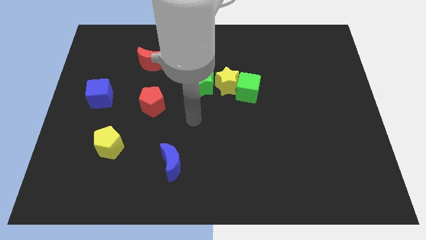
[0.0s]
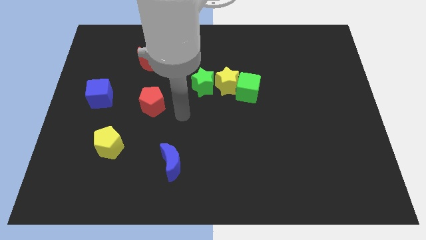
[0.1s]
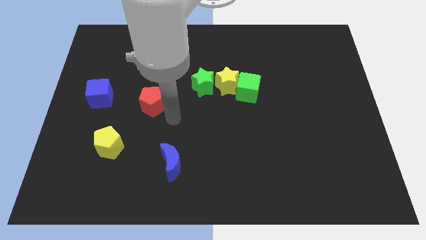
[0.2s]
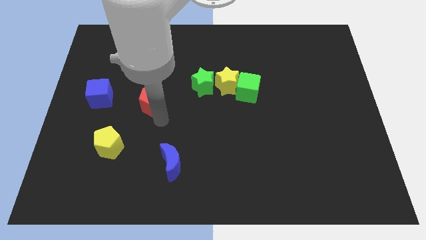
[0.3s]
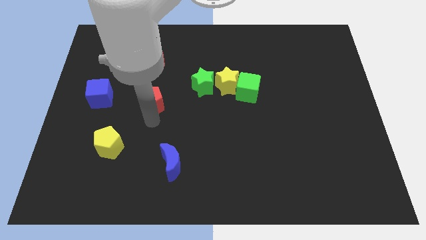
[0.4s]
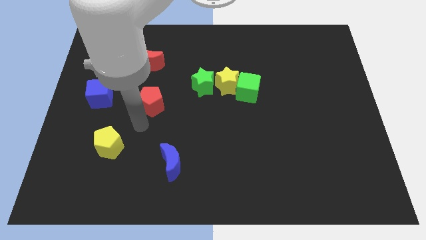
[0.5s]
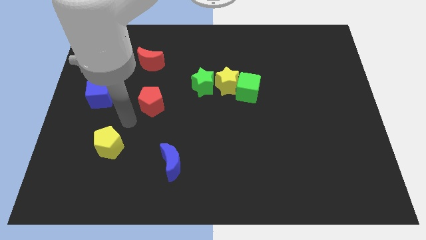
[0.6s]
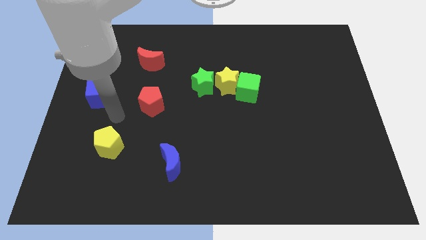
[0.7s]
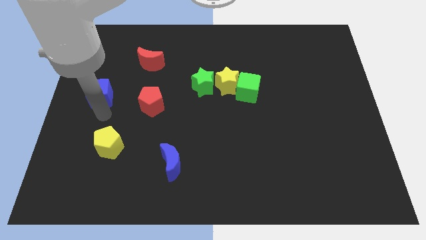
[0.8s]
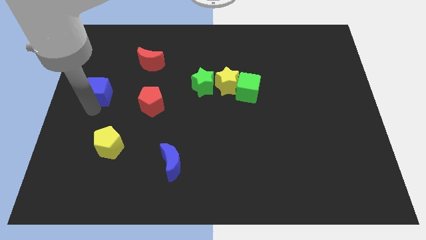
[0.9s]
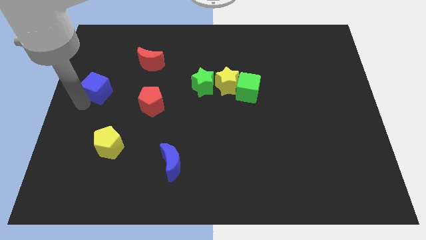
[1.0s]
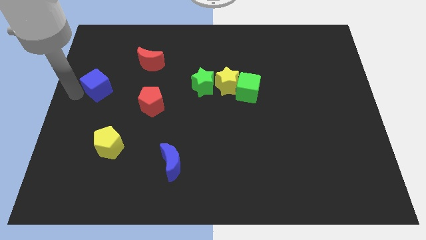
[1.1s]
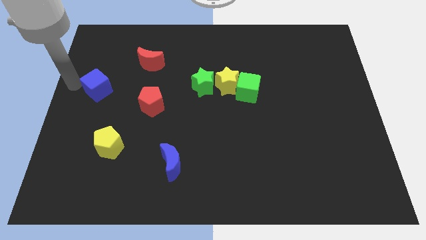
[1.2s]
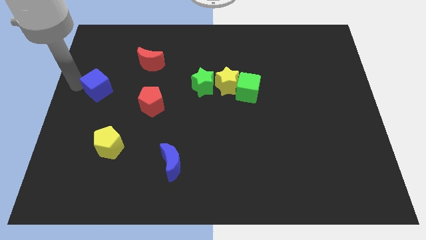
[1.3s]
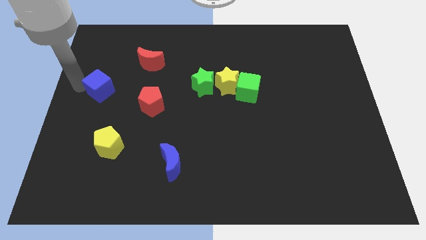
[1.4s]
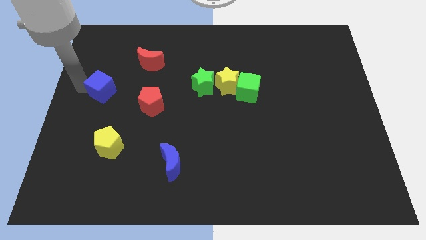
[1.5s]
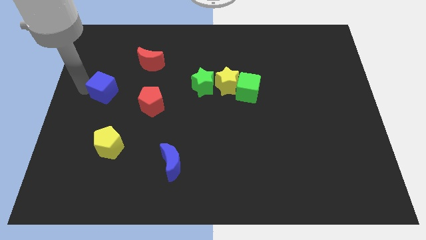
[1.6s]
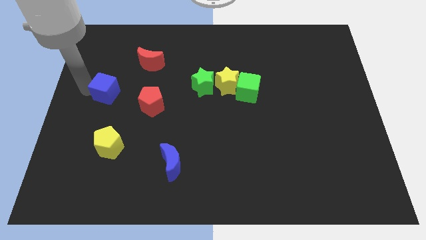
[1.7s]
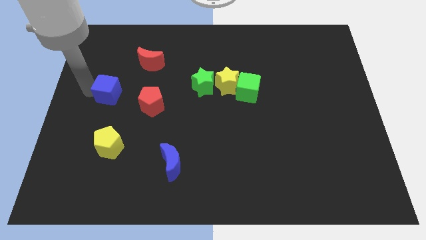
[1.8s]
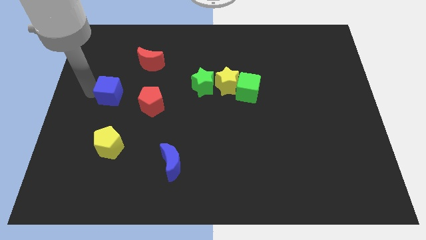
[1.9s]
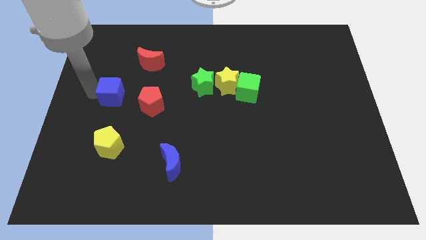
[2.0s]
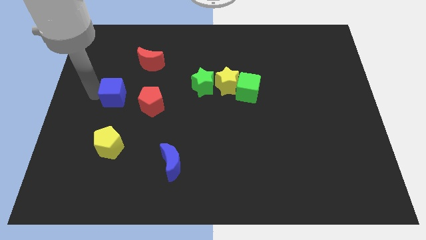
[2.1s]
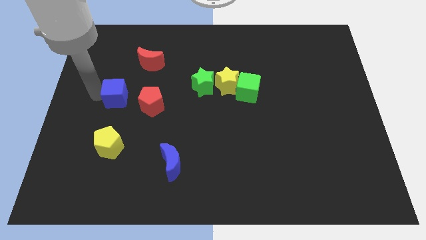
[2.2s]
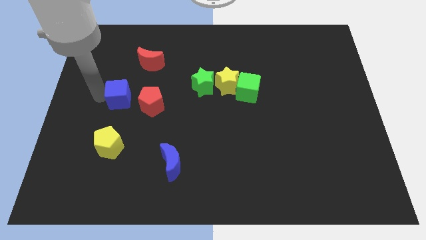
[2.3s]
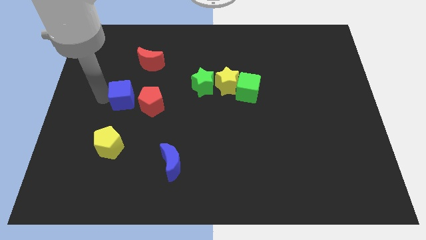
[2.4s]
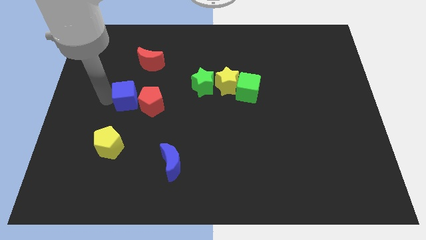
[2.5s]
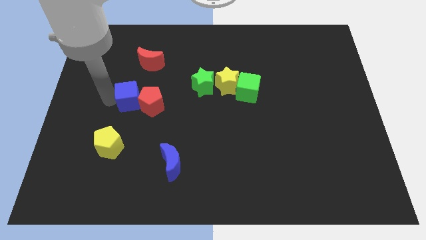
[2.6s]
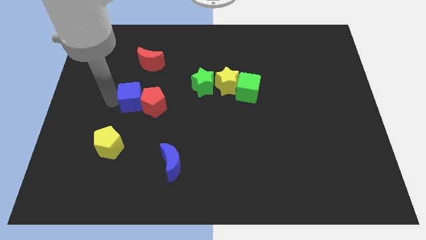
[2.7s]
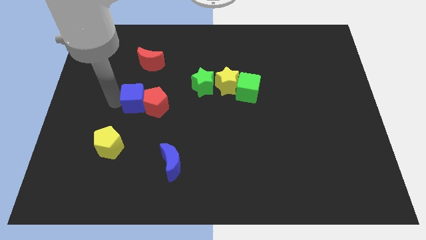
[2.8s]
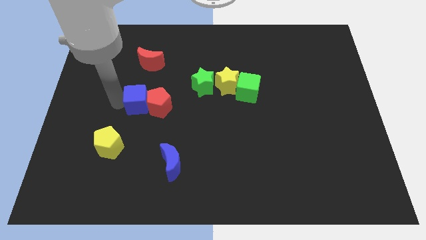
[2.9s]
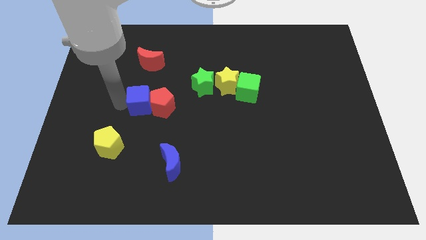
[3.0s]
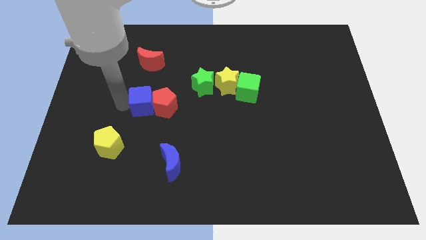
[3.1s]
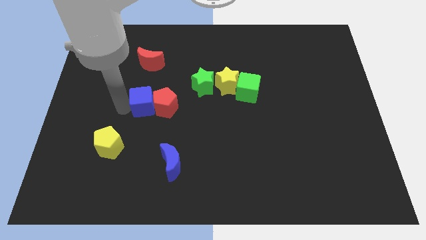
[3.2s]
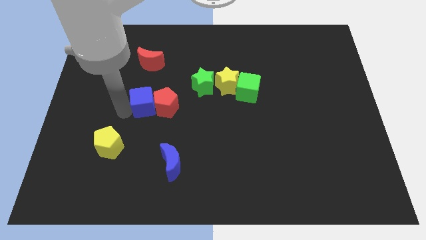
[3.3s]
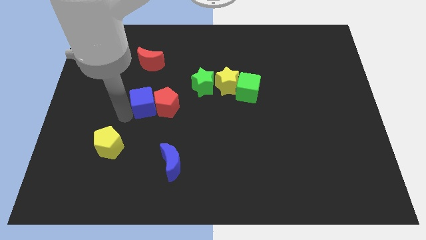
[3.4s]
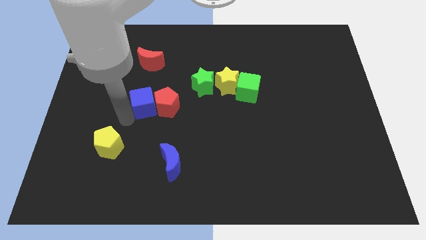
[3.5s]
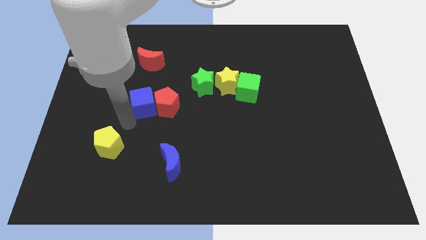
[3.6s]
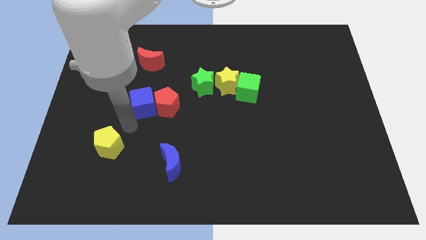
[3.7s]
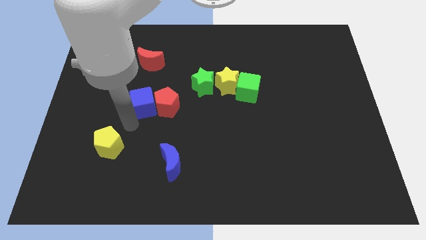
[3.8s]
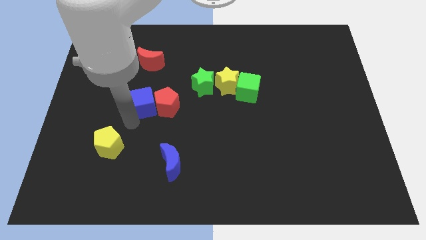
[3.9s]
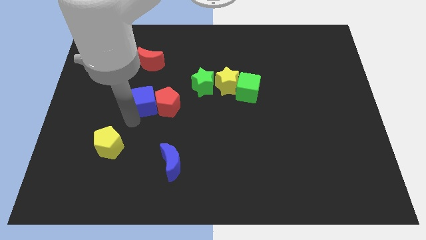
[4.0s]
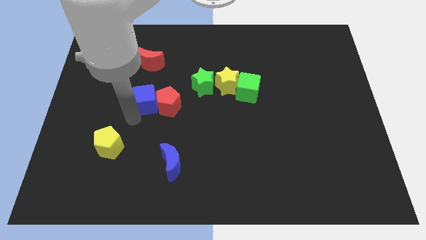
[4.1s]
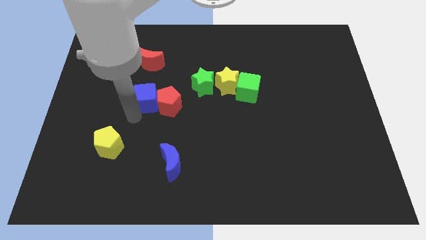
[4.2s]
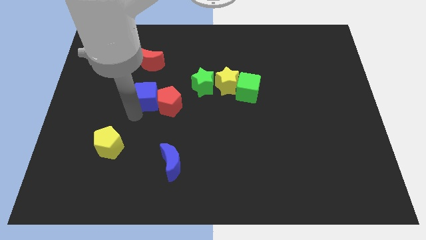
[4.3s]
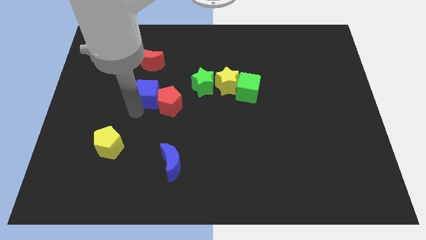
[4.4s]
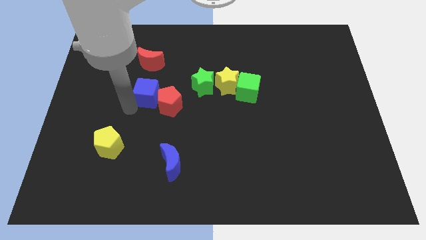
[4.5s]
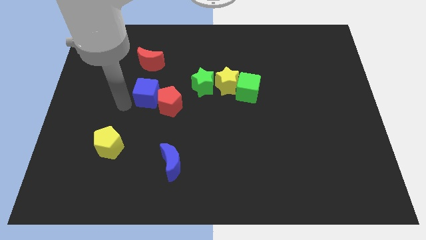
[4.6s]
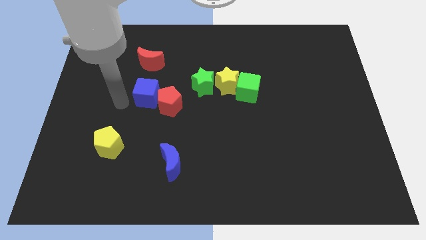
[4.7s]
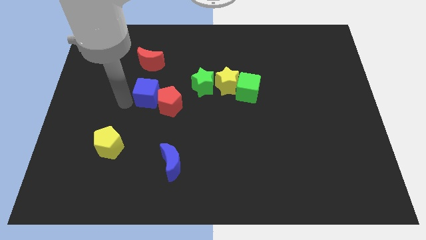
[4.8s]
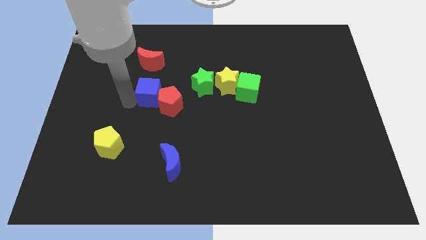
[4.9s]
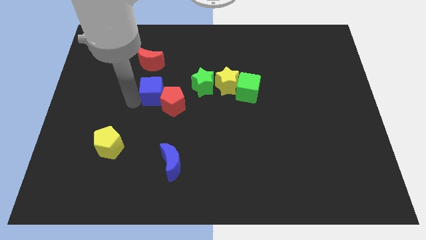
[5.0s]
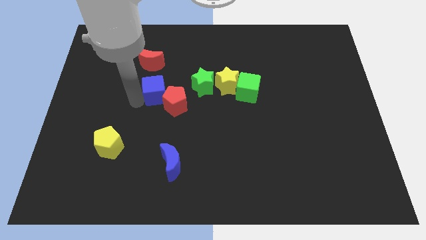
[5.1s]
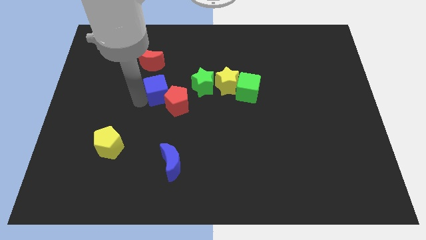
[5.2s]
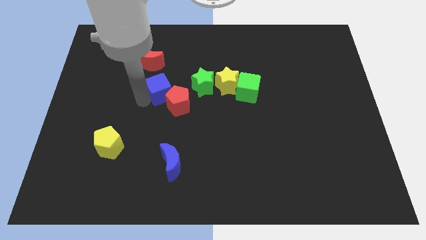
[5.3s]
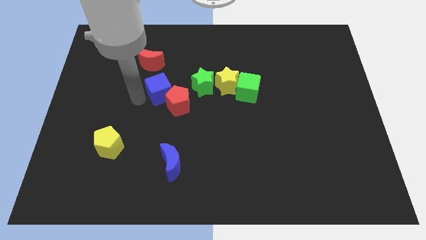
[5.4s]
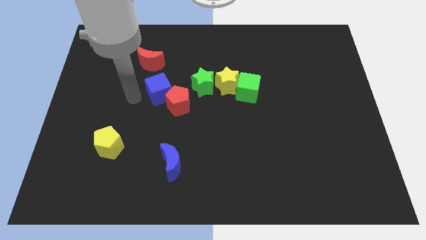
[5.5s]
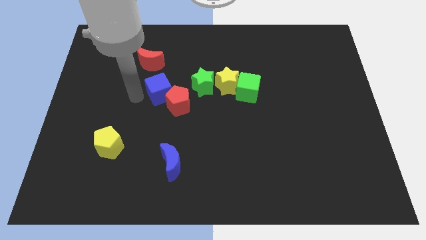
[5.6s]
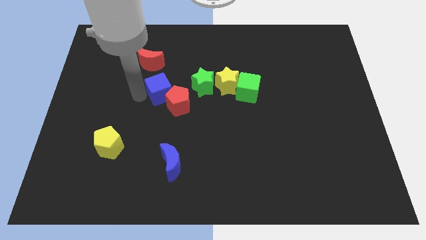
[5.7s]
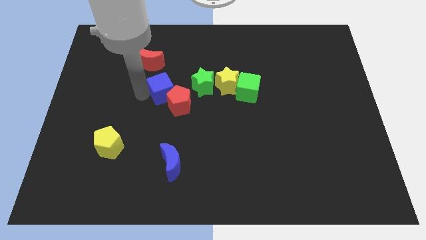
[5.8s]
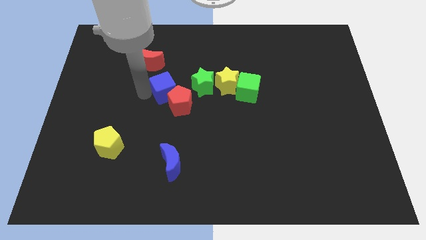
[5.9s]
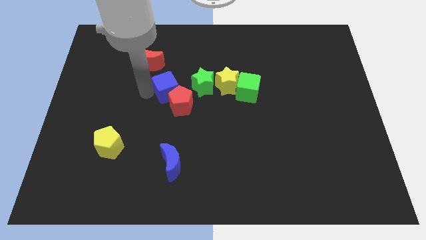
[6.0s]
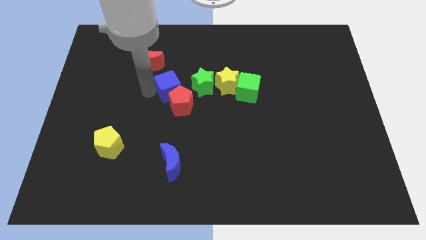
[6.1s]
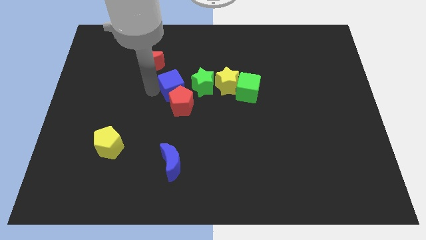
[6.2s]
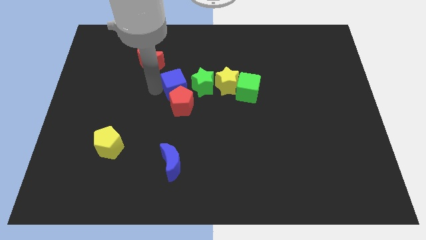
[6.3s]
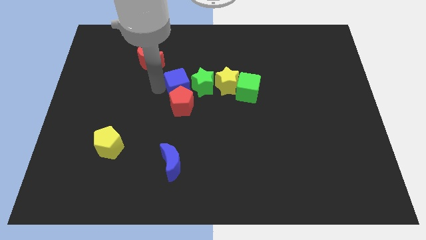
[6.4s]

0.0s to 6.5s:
slide the blue cube towards the green star
